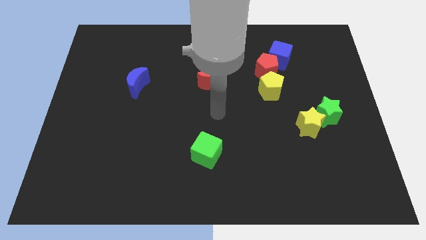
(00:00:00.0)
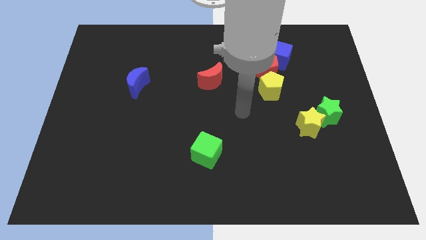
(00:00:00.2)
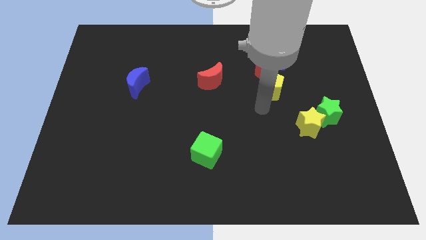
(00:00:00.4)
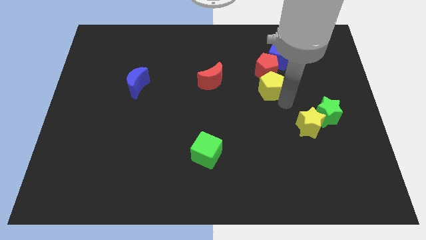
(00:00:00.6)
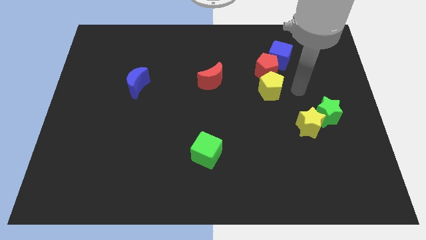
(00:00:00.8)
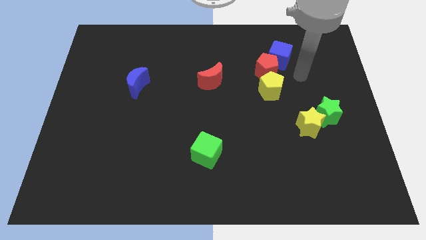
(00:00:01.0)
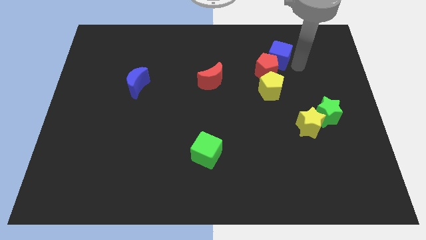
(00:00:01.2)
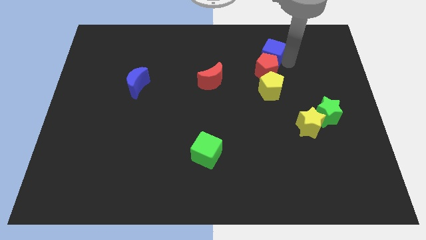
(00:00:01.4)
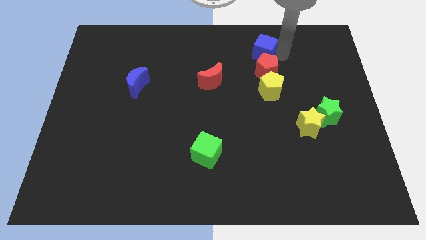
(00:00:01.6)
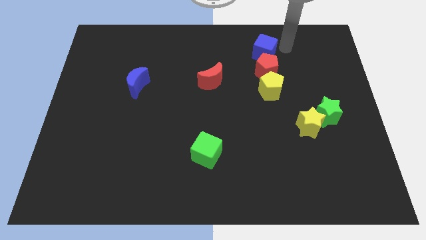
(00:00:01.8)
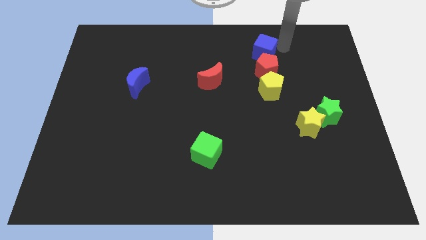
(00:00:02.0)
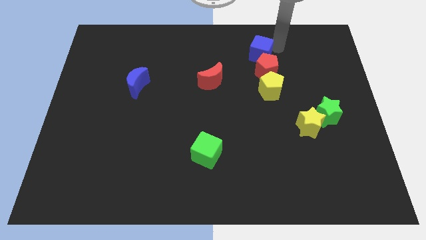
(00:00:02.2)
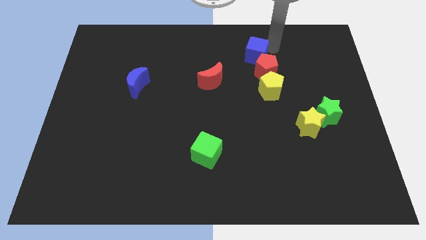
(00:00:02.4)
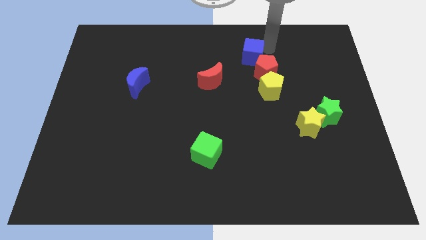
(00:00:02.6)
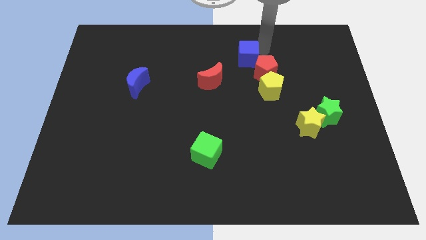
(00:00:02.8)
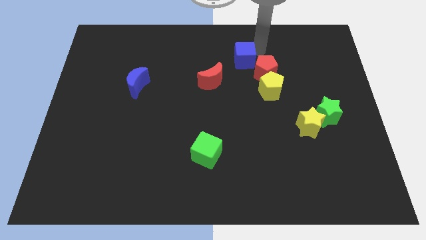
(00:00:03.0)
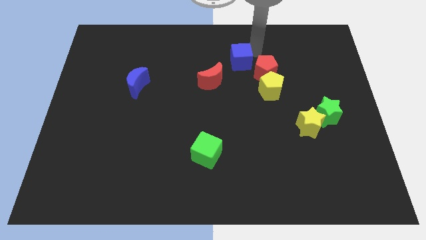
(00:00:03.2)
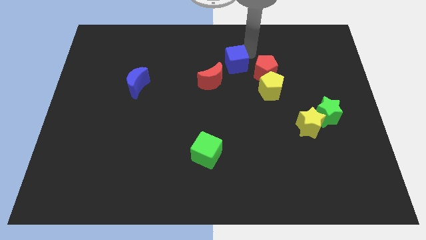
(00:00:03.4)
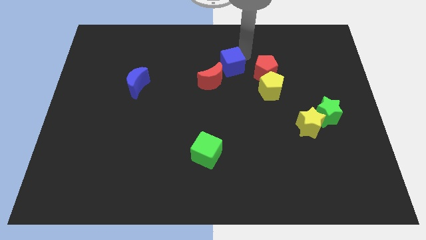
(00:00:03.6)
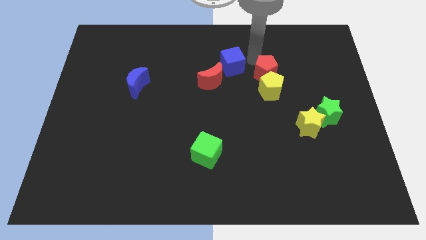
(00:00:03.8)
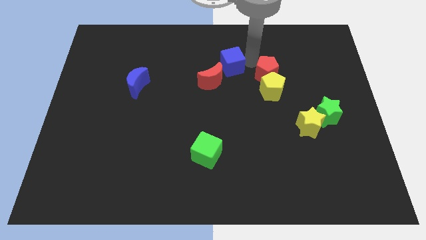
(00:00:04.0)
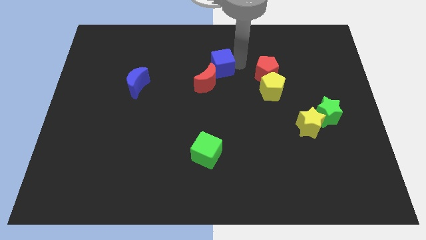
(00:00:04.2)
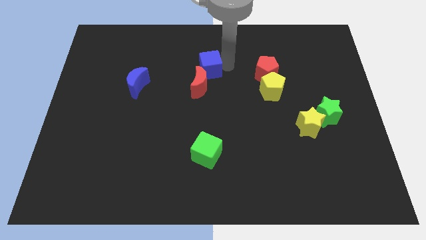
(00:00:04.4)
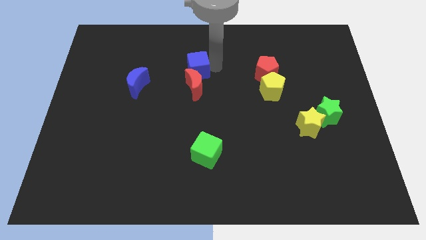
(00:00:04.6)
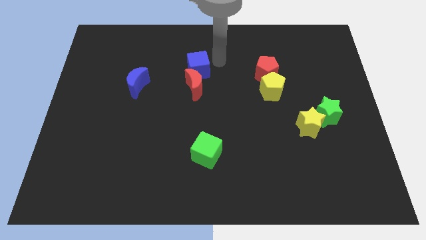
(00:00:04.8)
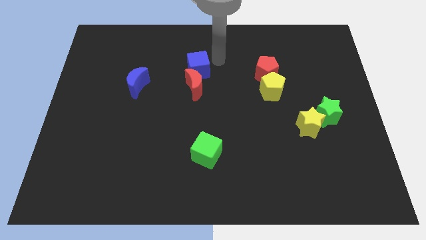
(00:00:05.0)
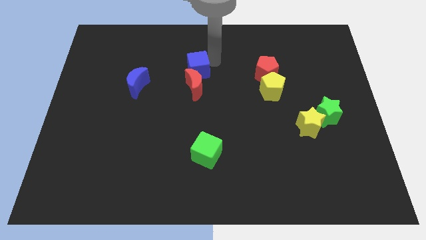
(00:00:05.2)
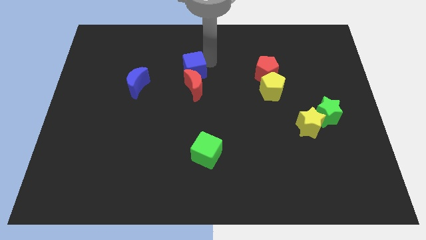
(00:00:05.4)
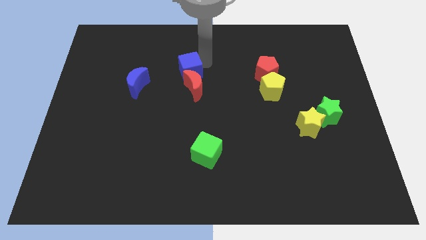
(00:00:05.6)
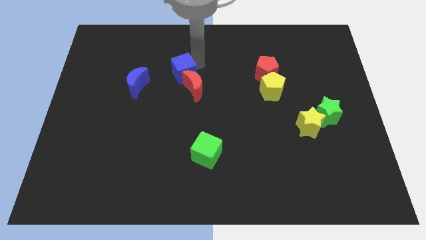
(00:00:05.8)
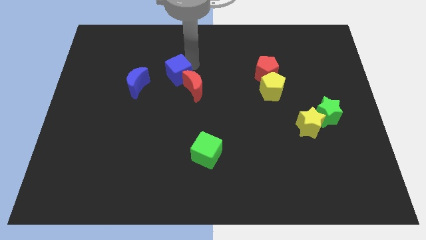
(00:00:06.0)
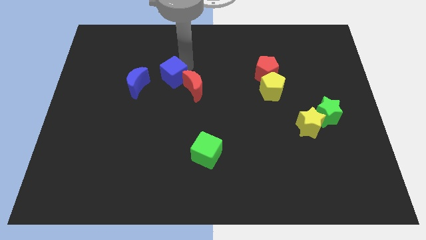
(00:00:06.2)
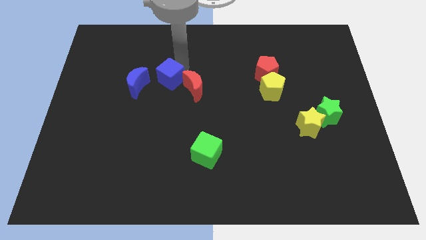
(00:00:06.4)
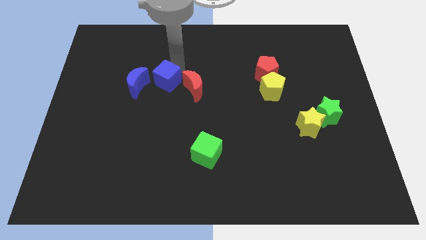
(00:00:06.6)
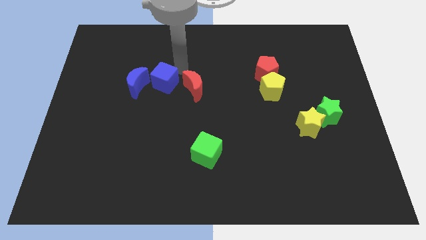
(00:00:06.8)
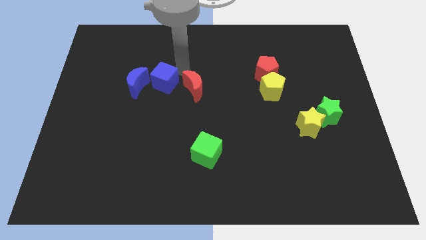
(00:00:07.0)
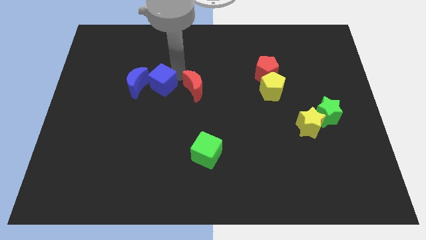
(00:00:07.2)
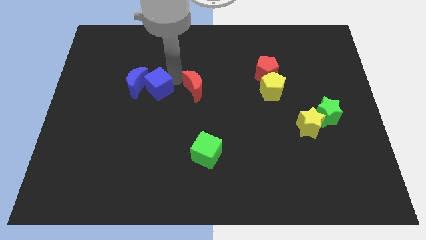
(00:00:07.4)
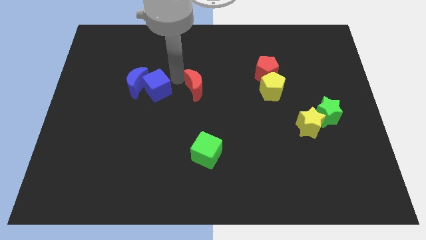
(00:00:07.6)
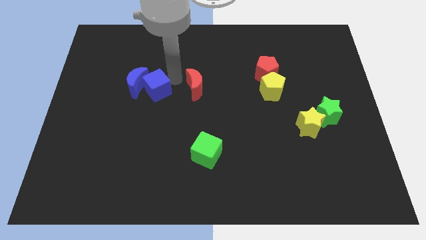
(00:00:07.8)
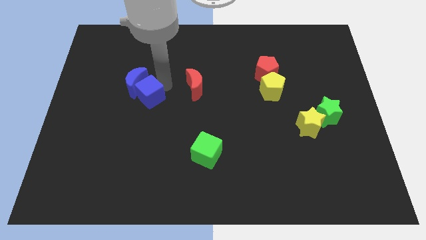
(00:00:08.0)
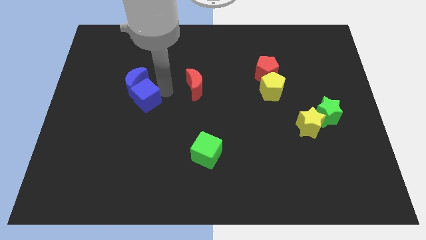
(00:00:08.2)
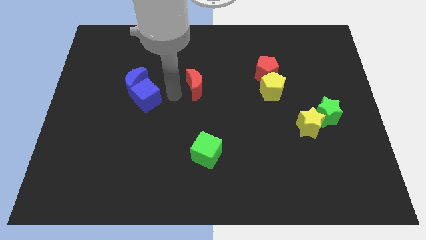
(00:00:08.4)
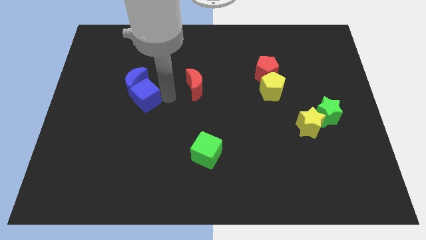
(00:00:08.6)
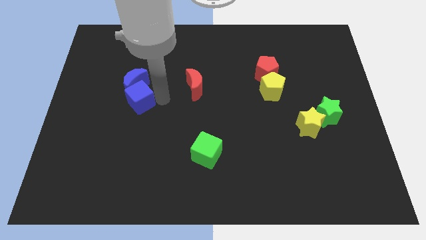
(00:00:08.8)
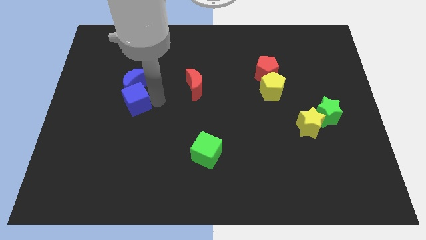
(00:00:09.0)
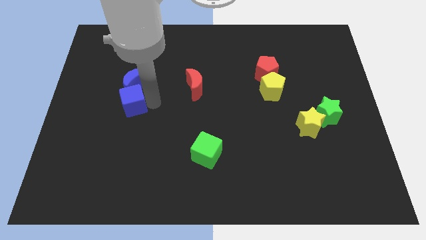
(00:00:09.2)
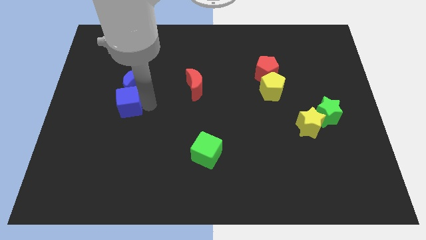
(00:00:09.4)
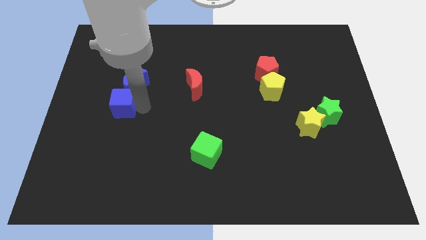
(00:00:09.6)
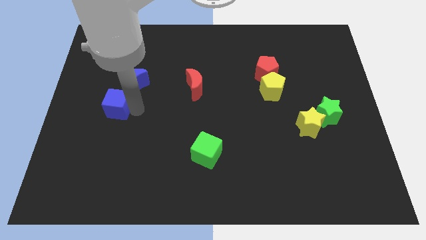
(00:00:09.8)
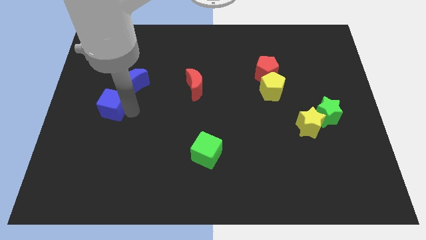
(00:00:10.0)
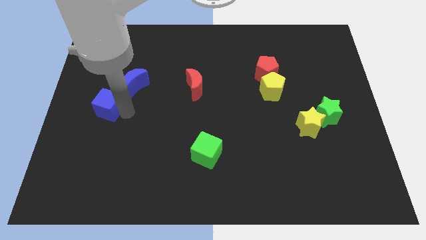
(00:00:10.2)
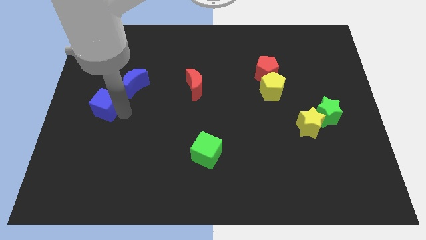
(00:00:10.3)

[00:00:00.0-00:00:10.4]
move the blue cube to the left side

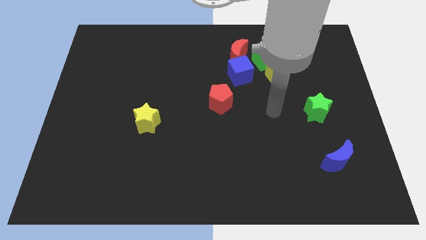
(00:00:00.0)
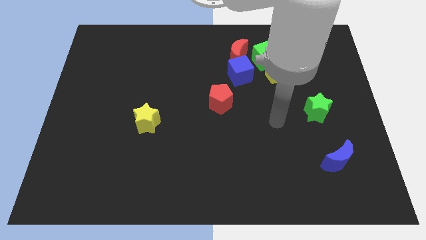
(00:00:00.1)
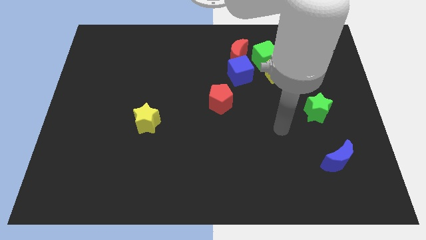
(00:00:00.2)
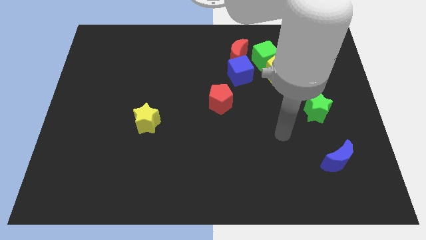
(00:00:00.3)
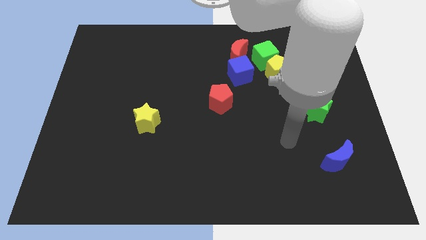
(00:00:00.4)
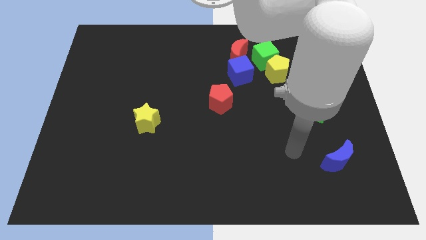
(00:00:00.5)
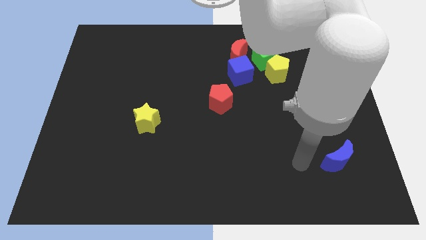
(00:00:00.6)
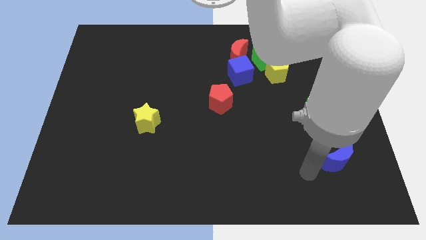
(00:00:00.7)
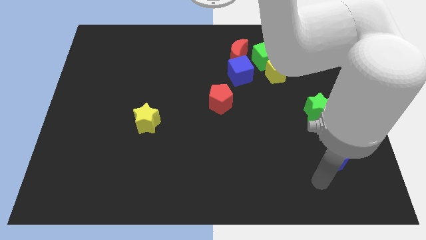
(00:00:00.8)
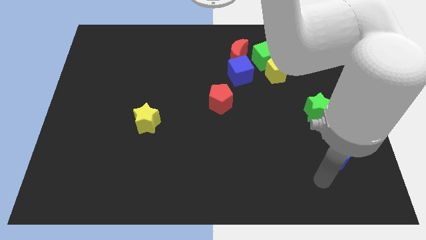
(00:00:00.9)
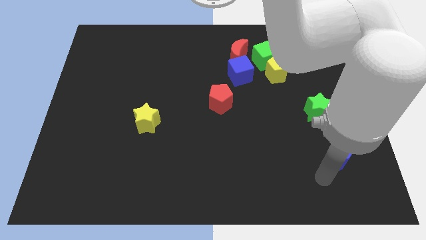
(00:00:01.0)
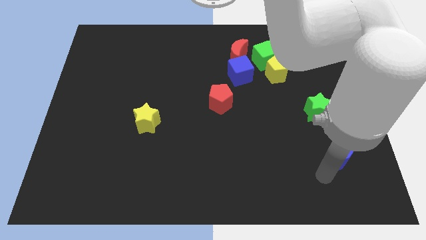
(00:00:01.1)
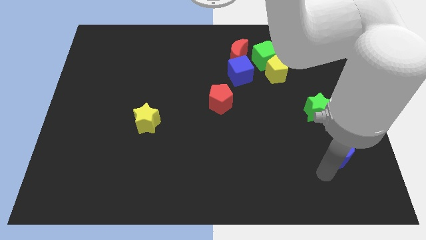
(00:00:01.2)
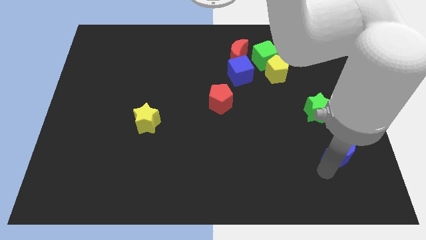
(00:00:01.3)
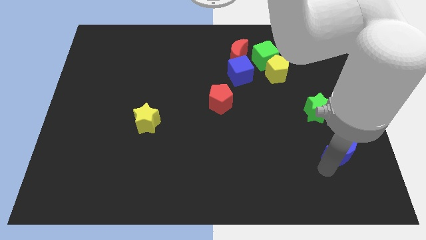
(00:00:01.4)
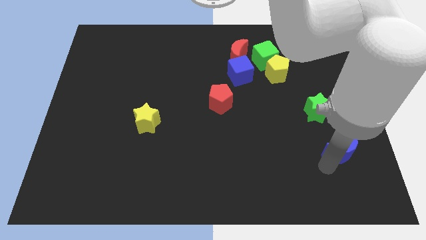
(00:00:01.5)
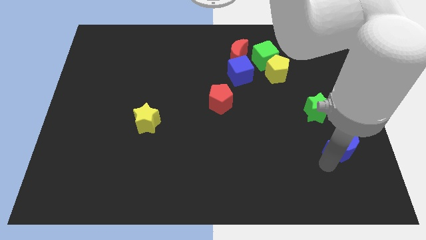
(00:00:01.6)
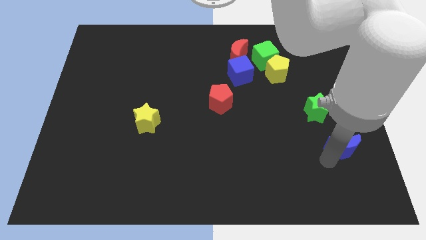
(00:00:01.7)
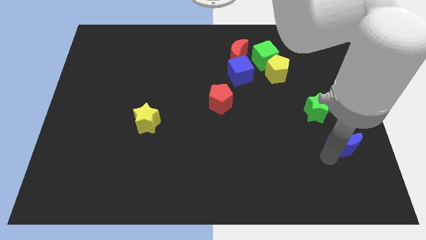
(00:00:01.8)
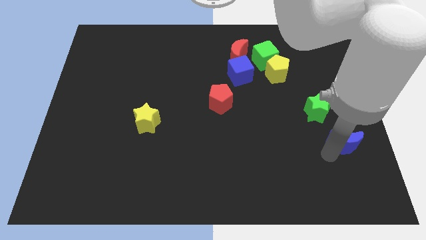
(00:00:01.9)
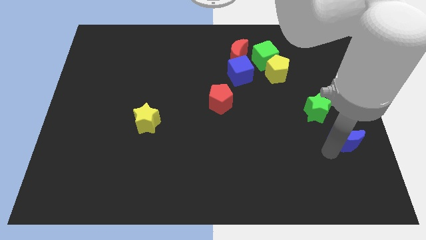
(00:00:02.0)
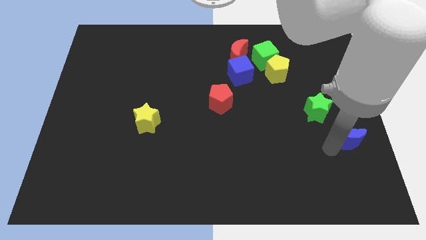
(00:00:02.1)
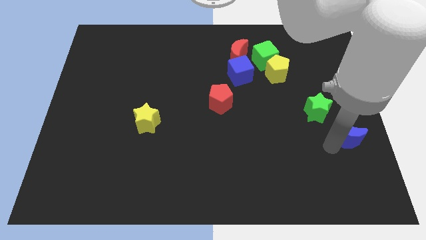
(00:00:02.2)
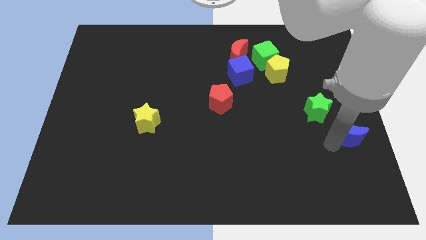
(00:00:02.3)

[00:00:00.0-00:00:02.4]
push the blue moon to the center right
